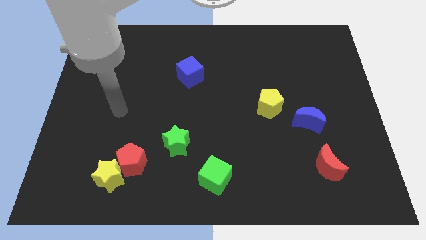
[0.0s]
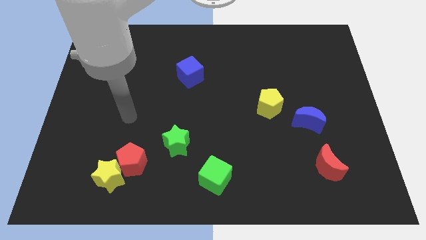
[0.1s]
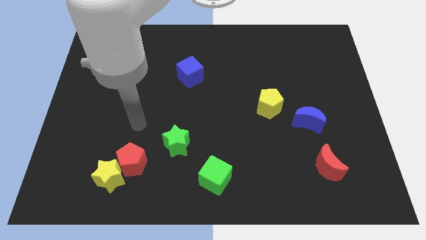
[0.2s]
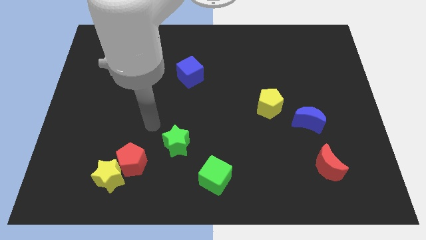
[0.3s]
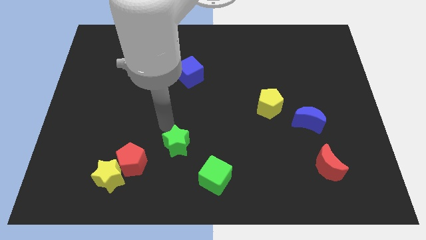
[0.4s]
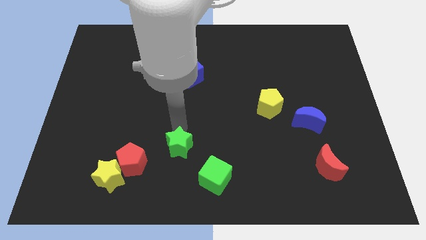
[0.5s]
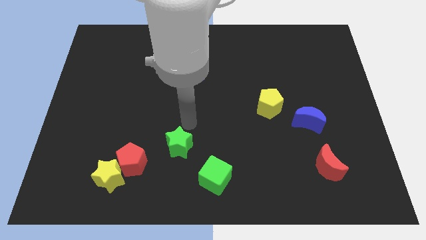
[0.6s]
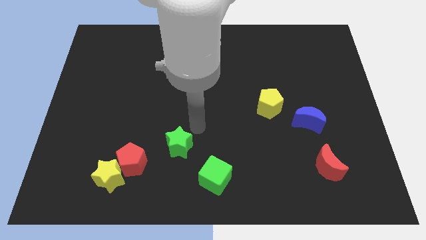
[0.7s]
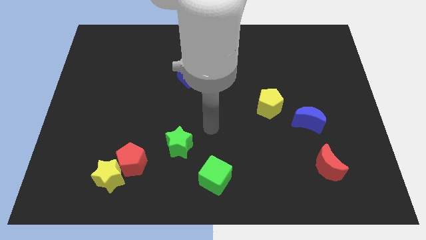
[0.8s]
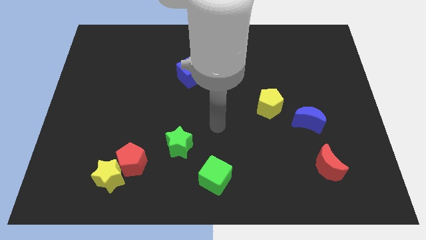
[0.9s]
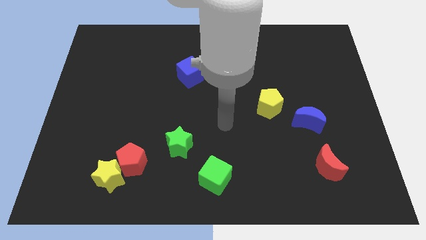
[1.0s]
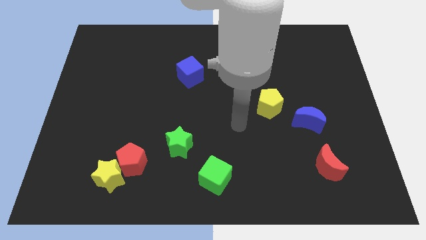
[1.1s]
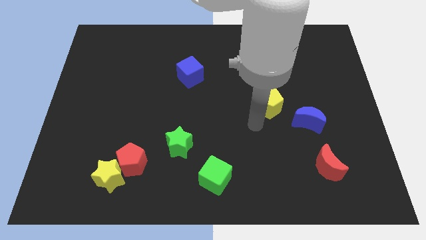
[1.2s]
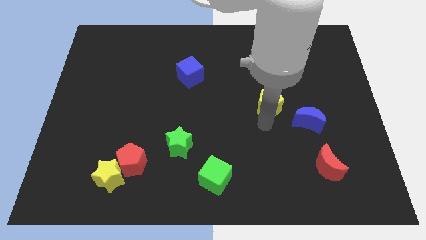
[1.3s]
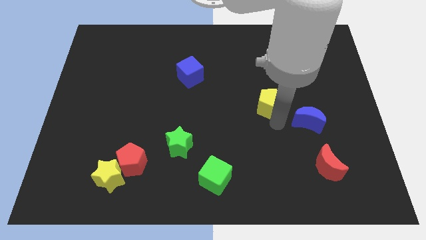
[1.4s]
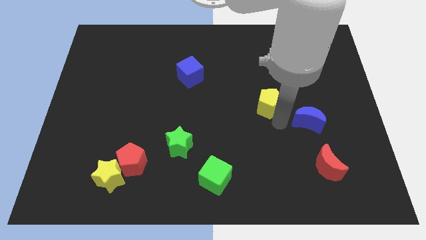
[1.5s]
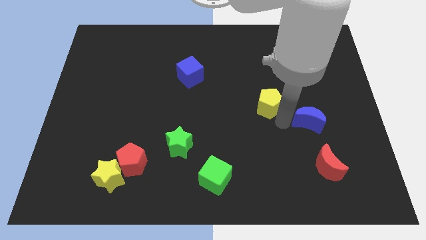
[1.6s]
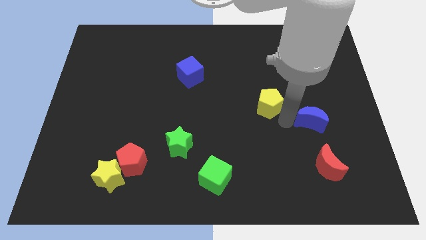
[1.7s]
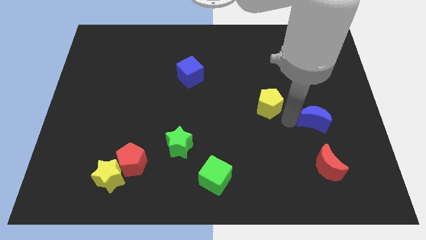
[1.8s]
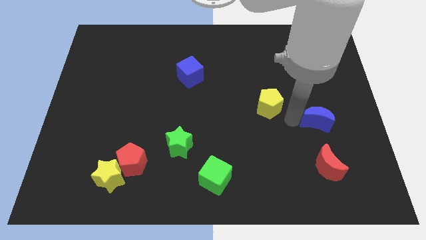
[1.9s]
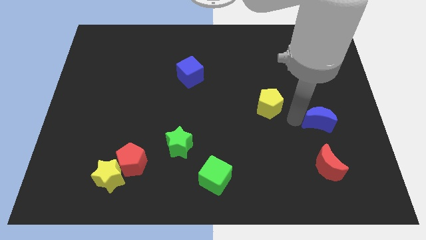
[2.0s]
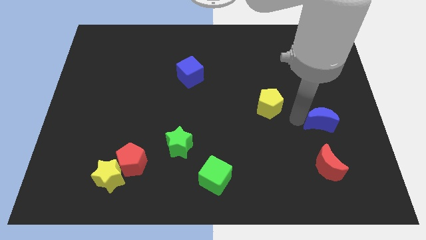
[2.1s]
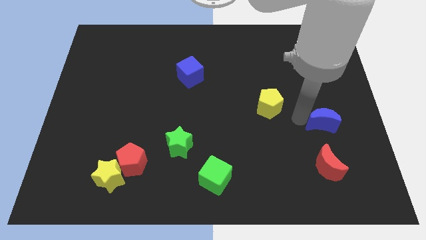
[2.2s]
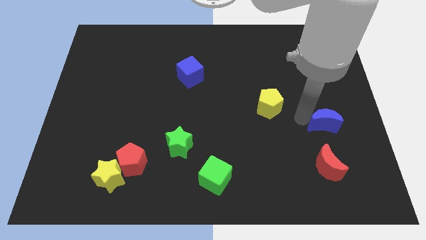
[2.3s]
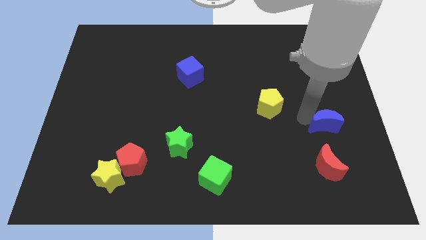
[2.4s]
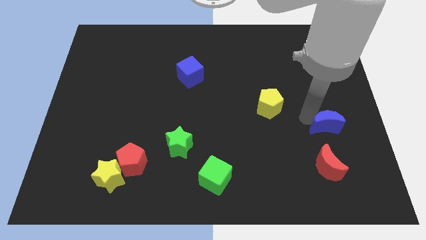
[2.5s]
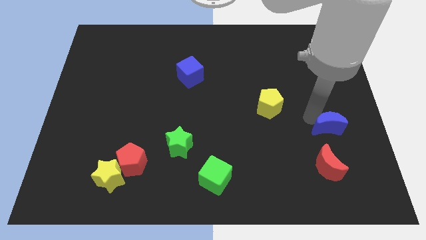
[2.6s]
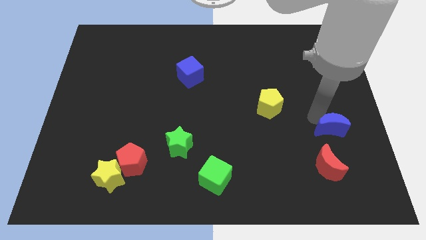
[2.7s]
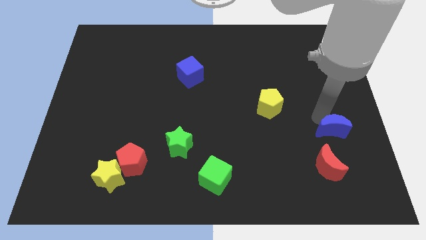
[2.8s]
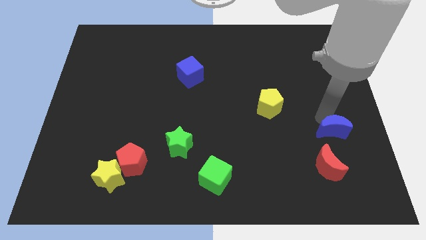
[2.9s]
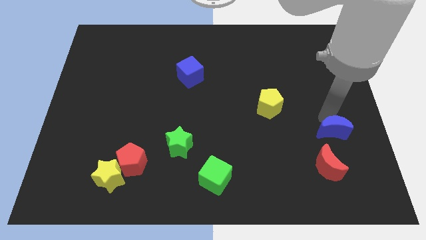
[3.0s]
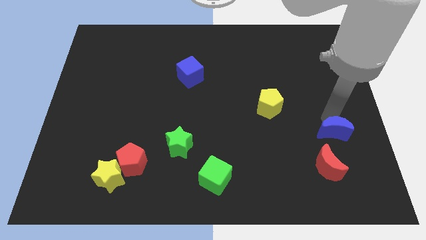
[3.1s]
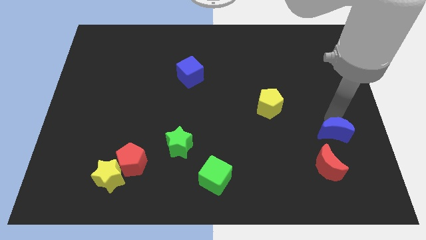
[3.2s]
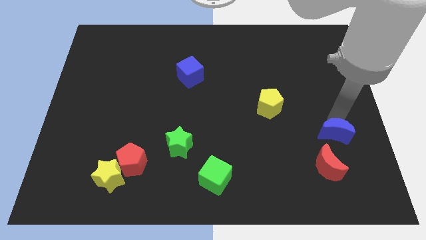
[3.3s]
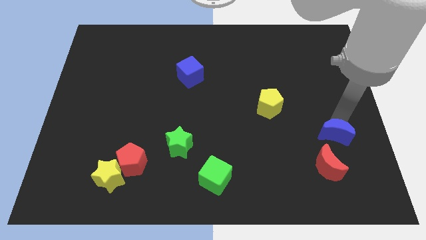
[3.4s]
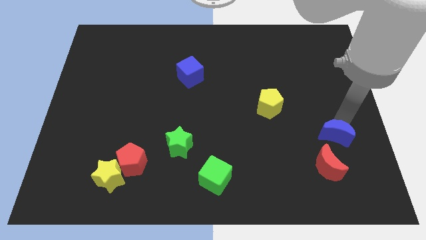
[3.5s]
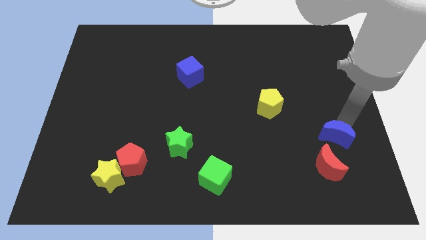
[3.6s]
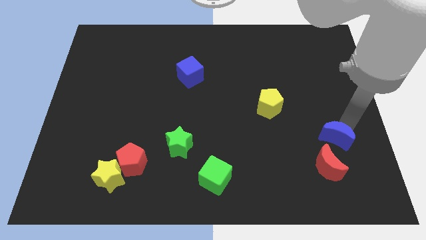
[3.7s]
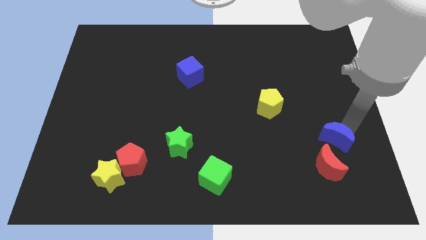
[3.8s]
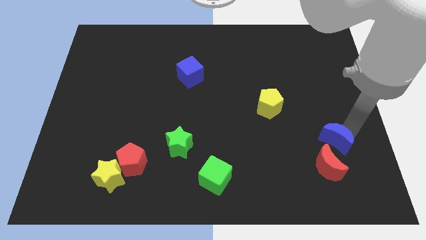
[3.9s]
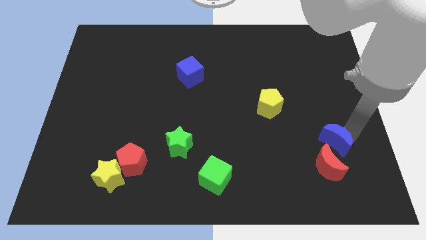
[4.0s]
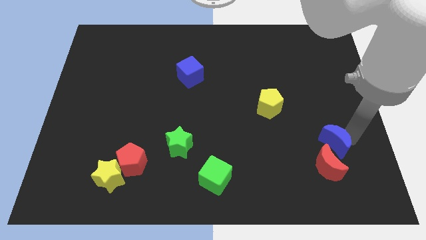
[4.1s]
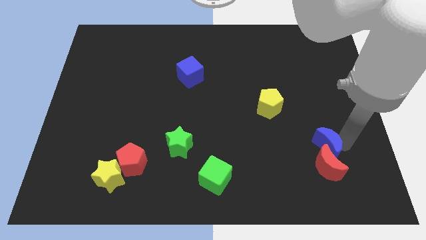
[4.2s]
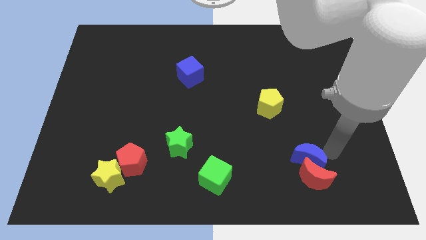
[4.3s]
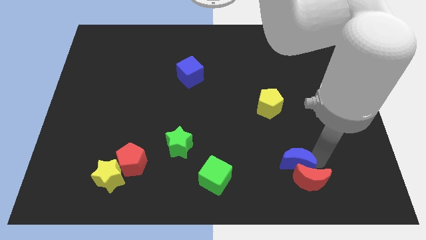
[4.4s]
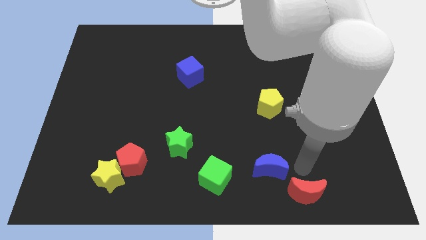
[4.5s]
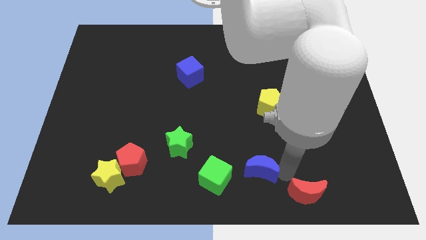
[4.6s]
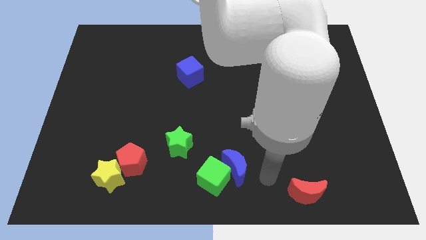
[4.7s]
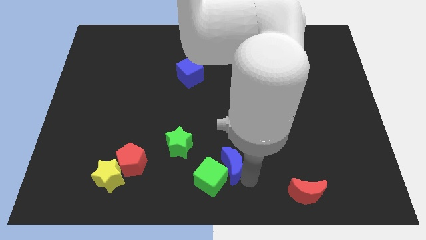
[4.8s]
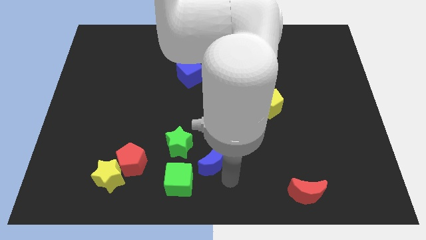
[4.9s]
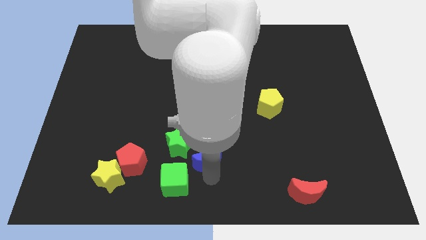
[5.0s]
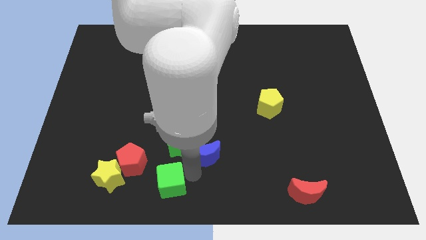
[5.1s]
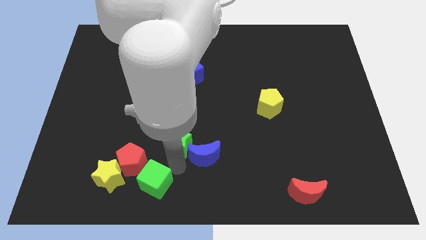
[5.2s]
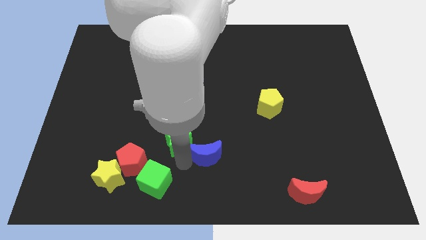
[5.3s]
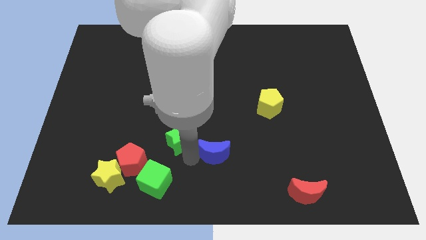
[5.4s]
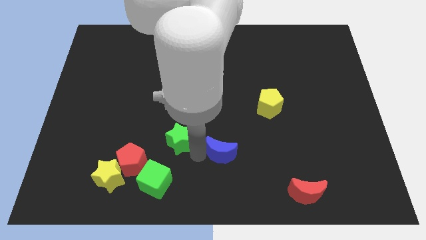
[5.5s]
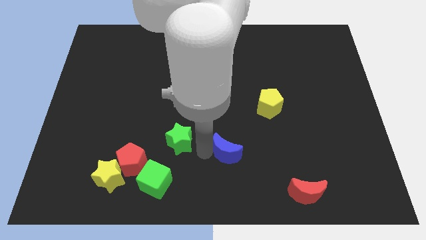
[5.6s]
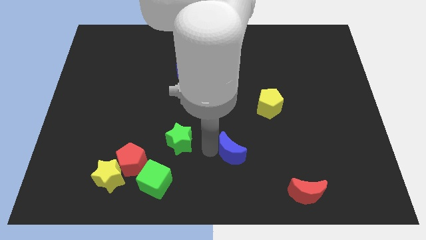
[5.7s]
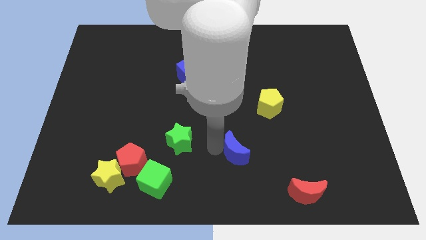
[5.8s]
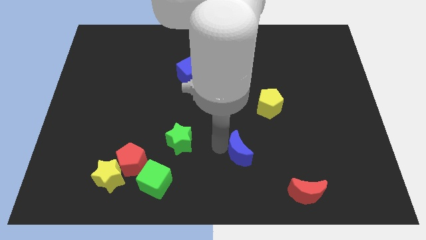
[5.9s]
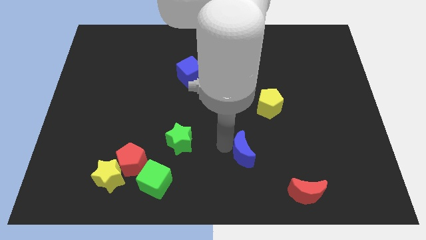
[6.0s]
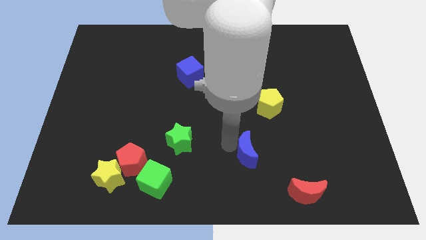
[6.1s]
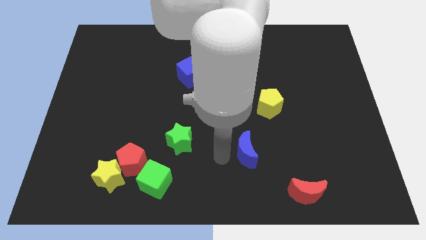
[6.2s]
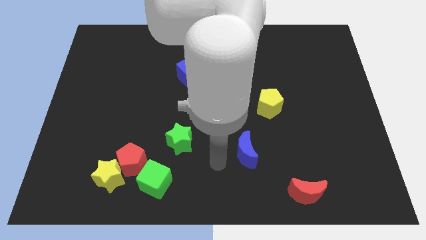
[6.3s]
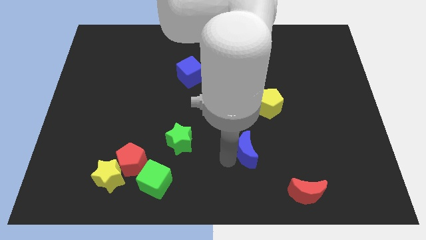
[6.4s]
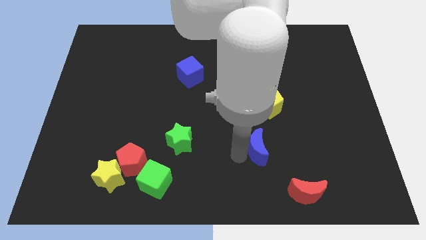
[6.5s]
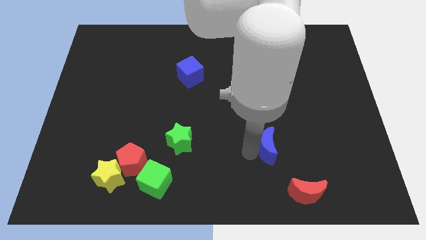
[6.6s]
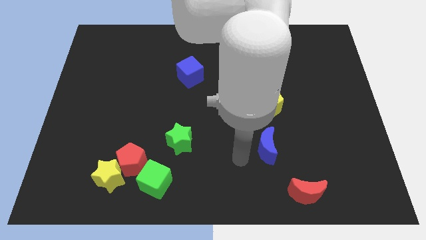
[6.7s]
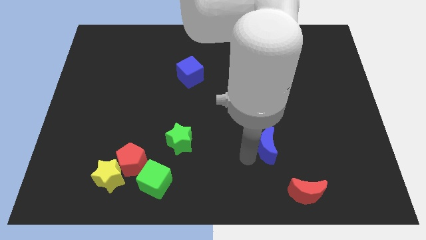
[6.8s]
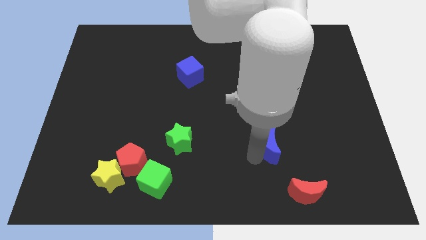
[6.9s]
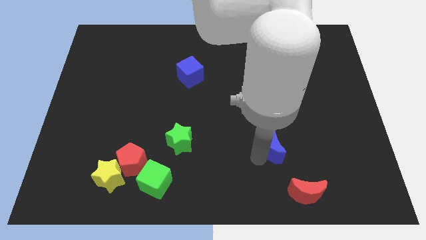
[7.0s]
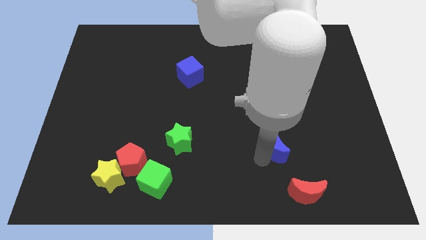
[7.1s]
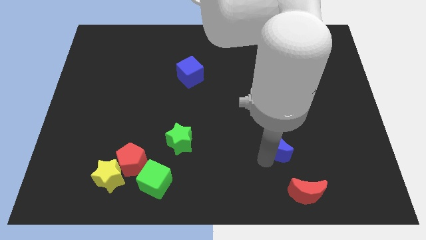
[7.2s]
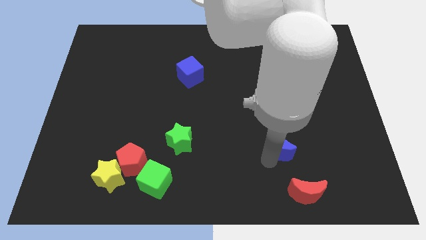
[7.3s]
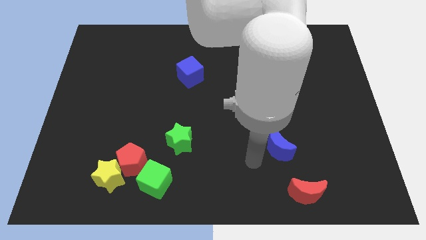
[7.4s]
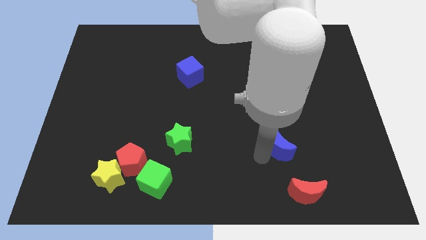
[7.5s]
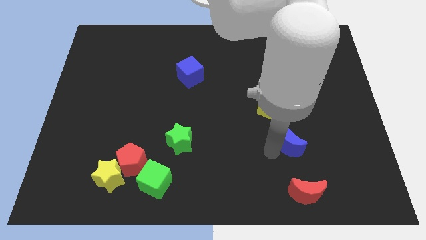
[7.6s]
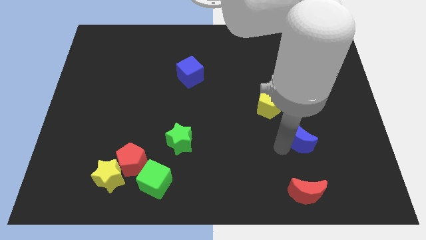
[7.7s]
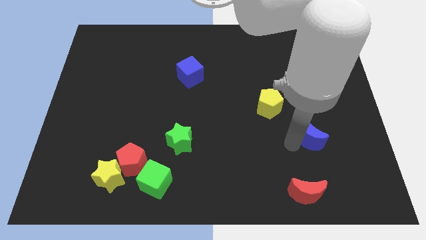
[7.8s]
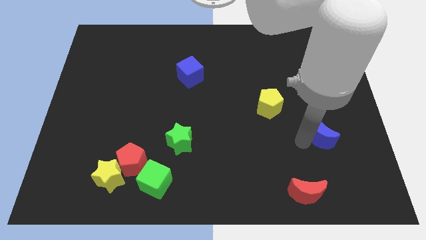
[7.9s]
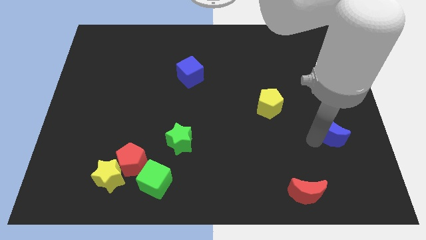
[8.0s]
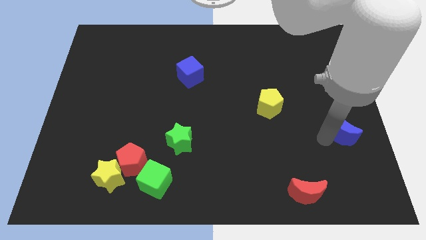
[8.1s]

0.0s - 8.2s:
slide the blue moon to the right side
